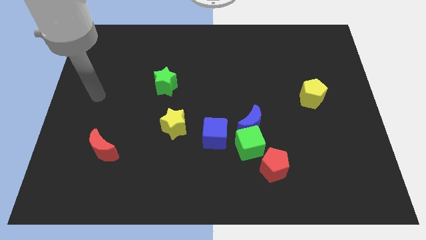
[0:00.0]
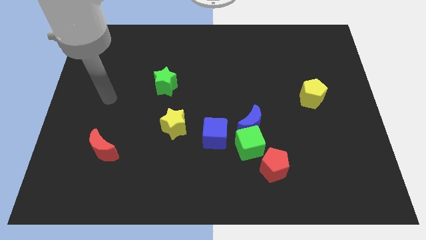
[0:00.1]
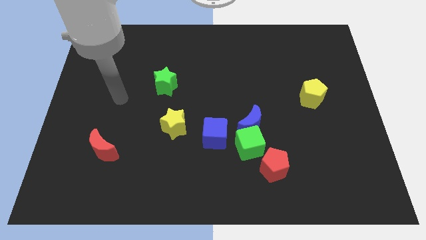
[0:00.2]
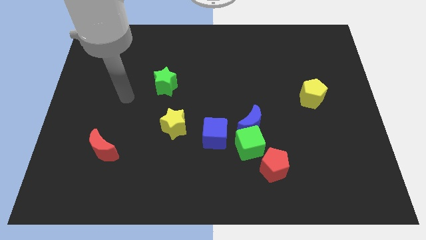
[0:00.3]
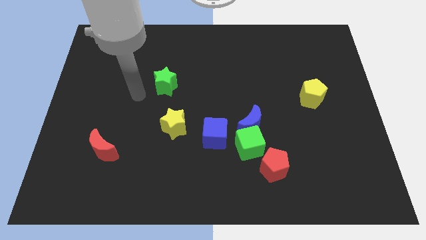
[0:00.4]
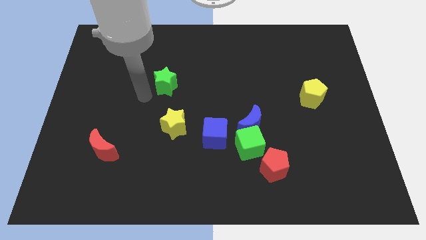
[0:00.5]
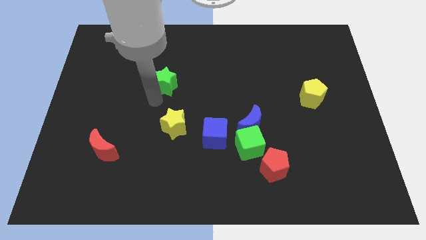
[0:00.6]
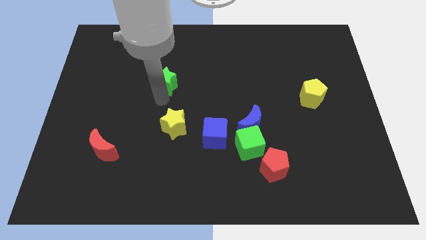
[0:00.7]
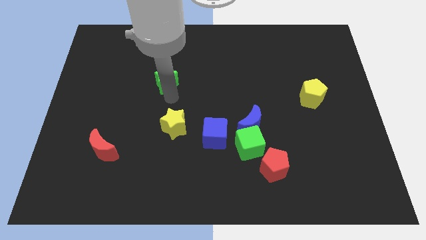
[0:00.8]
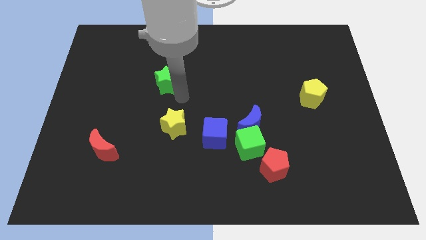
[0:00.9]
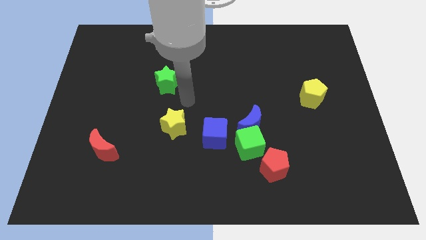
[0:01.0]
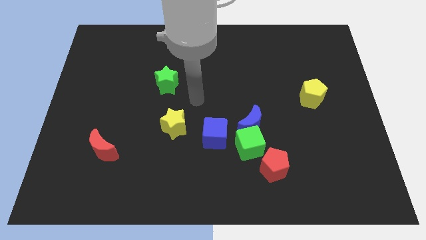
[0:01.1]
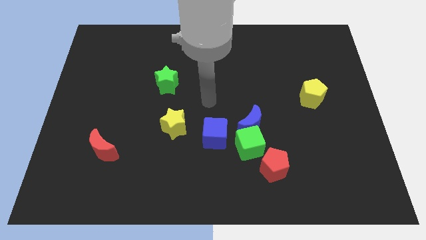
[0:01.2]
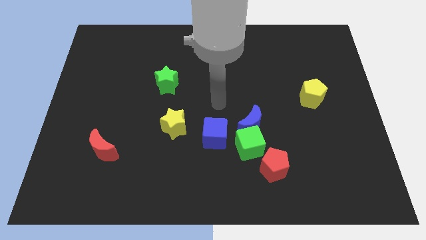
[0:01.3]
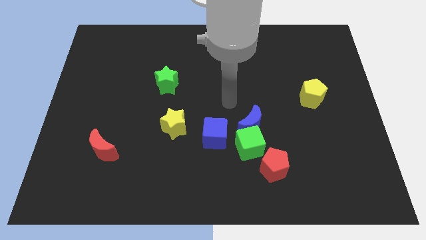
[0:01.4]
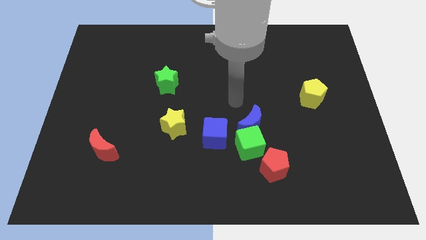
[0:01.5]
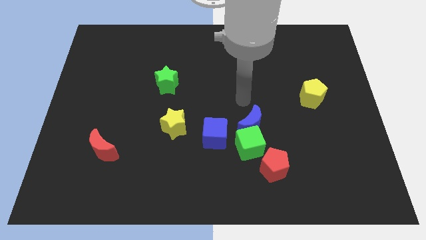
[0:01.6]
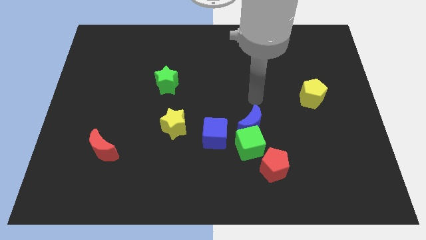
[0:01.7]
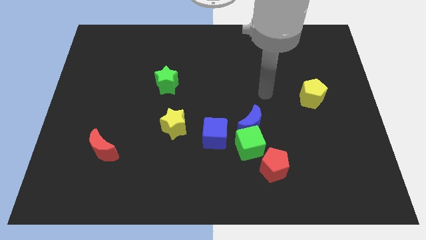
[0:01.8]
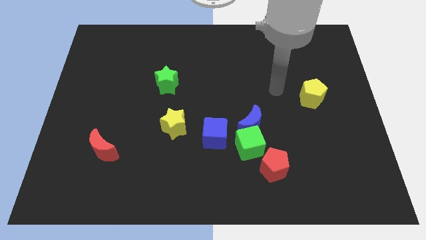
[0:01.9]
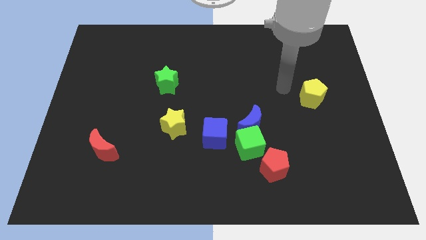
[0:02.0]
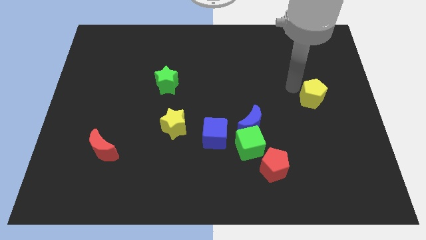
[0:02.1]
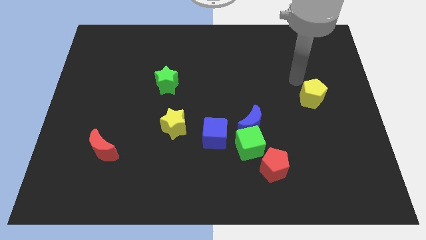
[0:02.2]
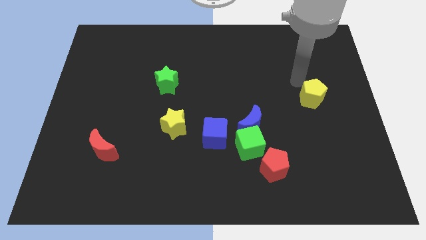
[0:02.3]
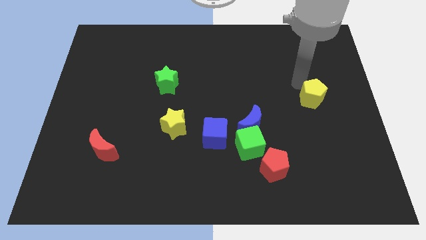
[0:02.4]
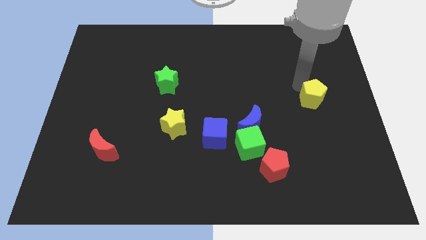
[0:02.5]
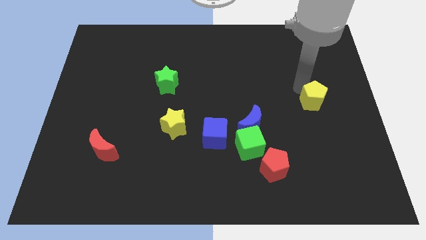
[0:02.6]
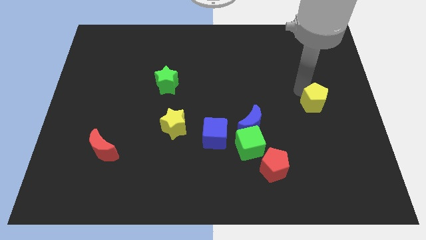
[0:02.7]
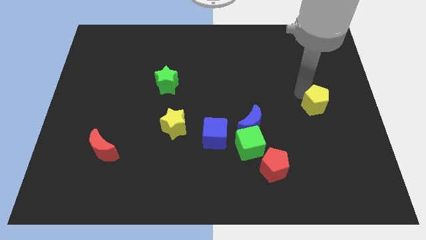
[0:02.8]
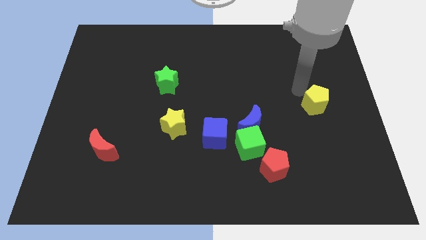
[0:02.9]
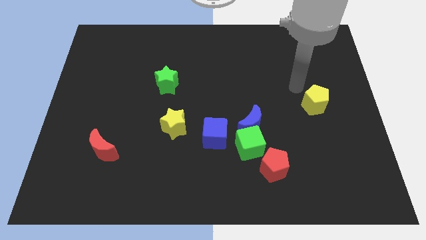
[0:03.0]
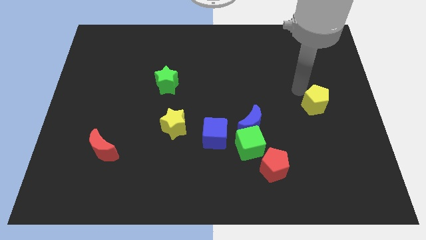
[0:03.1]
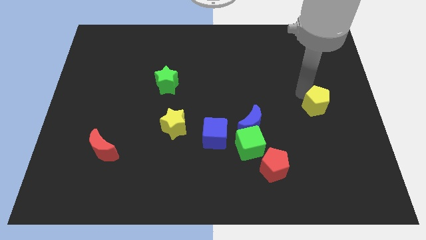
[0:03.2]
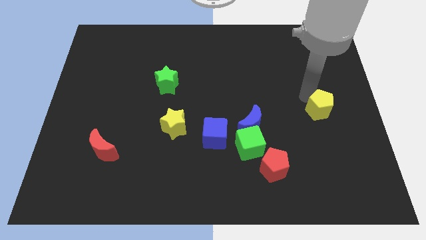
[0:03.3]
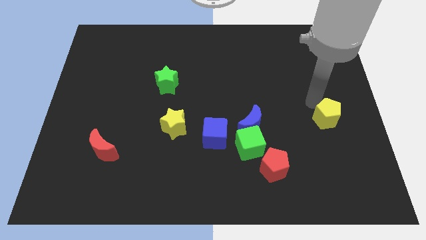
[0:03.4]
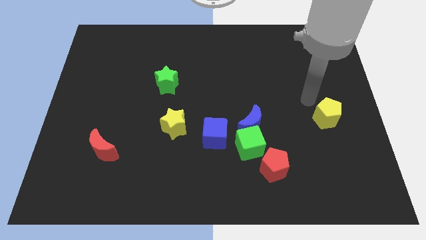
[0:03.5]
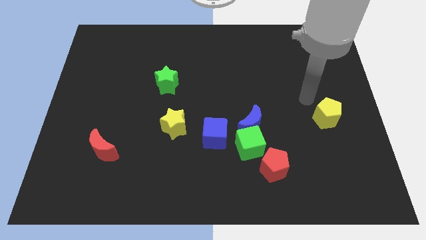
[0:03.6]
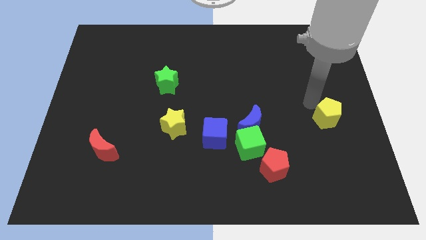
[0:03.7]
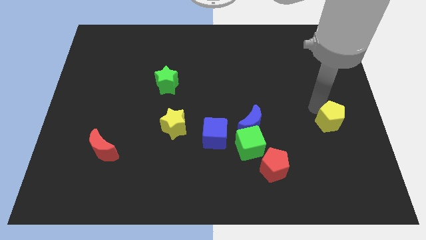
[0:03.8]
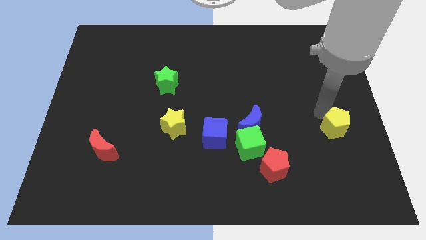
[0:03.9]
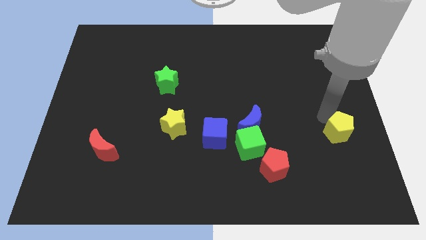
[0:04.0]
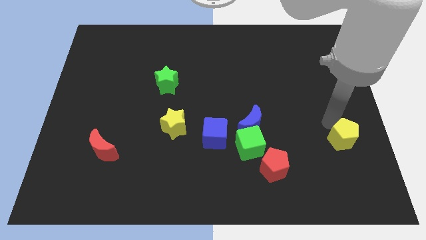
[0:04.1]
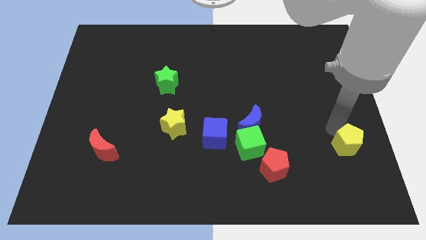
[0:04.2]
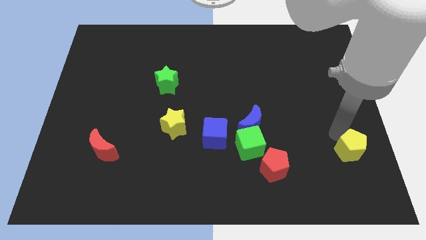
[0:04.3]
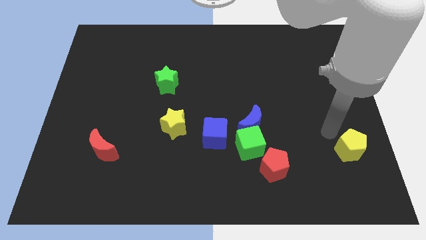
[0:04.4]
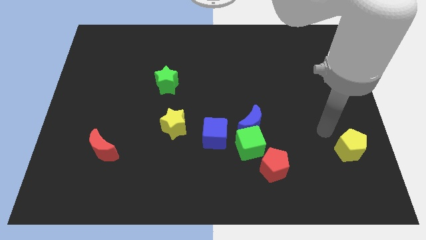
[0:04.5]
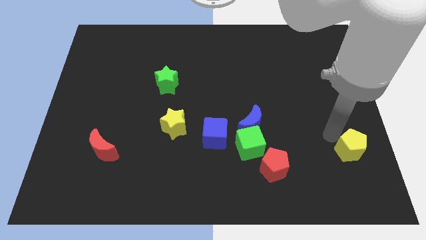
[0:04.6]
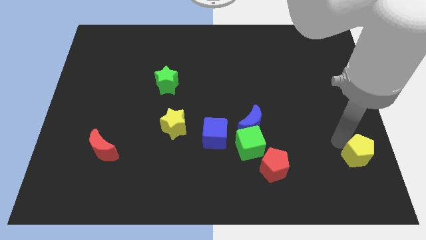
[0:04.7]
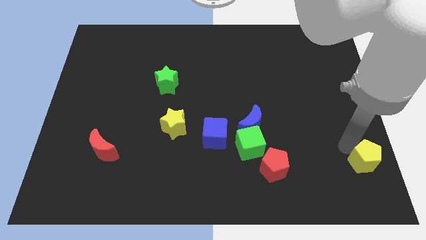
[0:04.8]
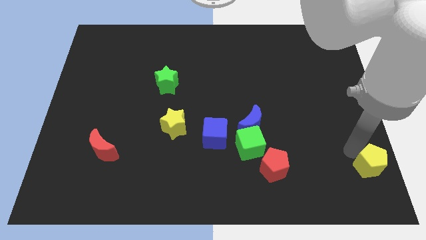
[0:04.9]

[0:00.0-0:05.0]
move the yellow pentagon to the lower right corner
